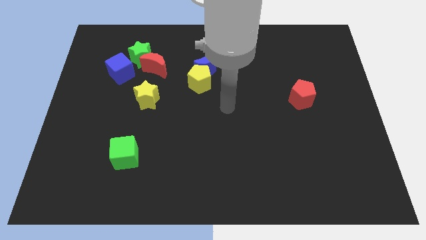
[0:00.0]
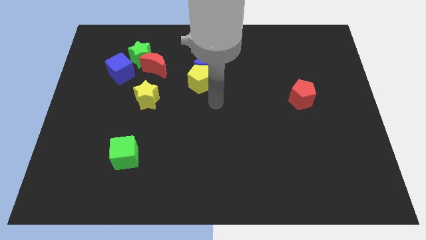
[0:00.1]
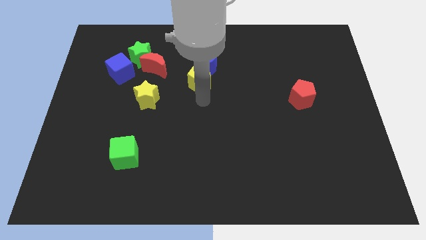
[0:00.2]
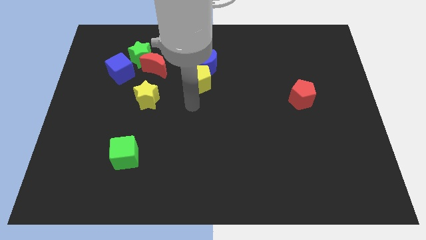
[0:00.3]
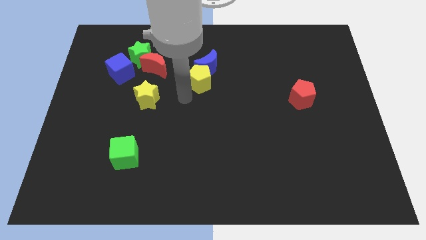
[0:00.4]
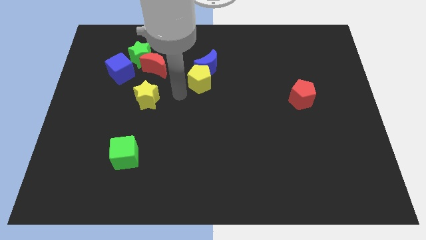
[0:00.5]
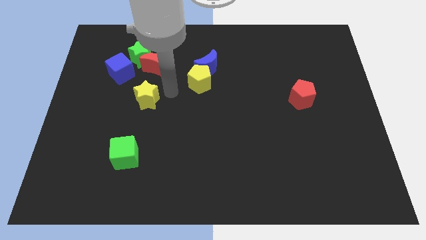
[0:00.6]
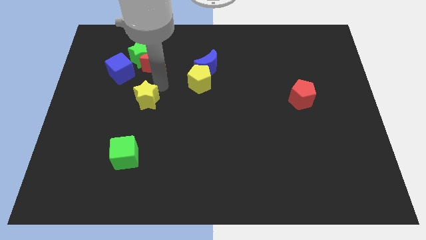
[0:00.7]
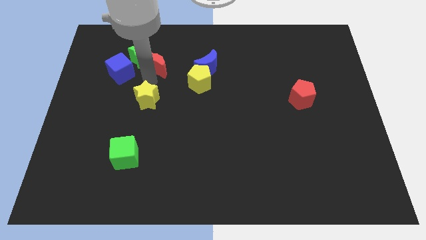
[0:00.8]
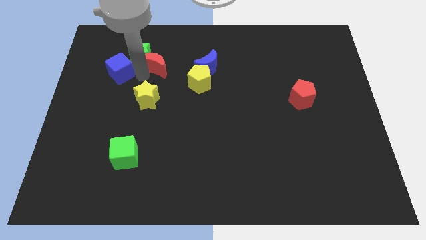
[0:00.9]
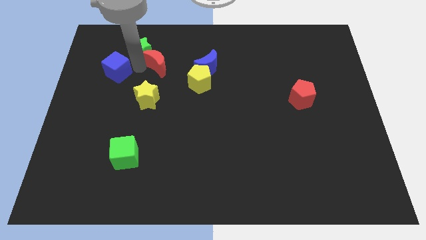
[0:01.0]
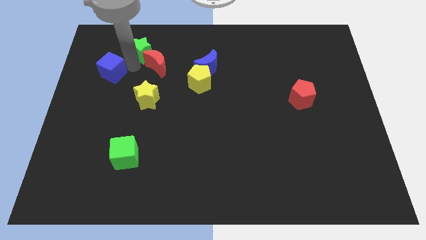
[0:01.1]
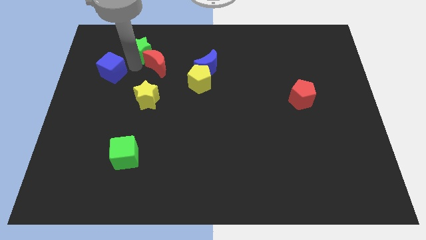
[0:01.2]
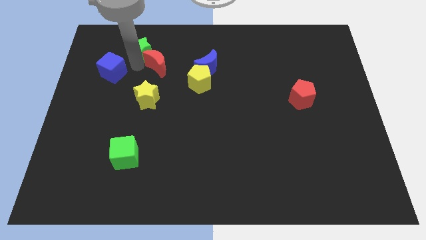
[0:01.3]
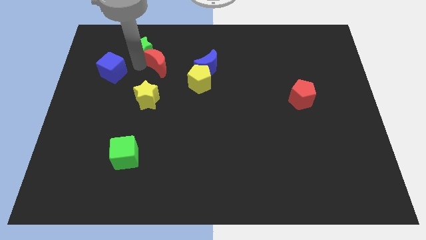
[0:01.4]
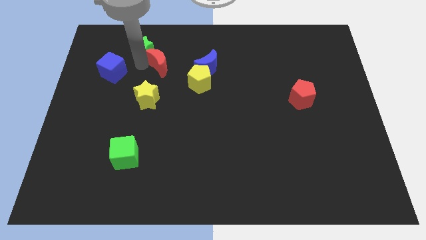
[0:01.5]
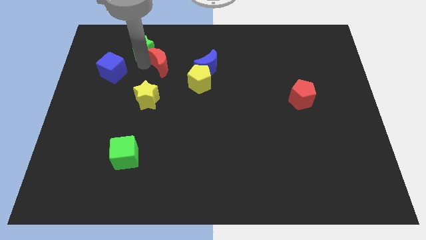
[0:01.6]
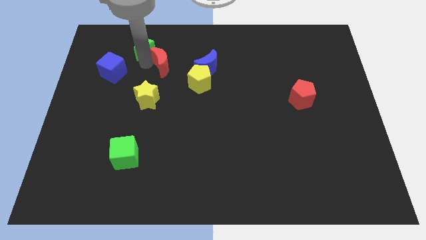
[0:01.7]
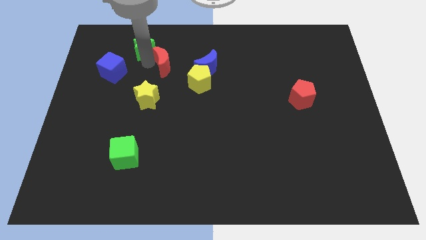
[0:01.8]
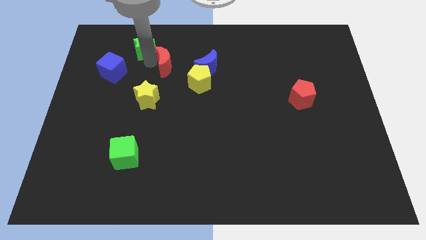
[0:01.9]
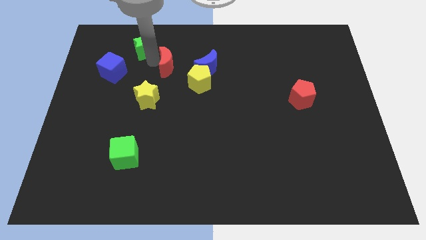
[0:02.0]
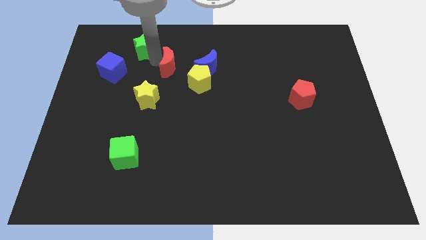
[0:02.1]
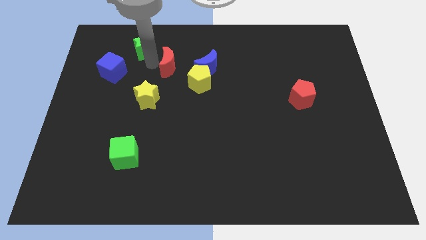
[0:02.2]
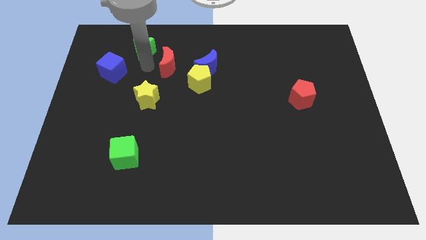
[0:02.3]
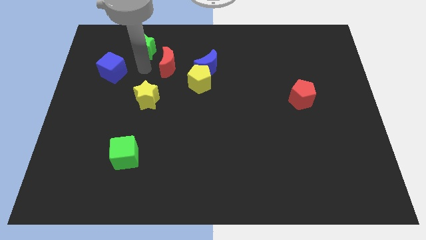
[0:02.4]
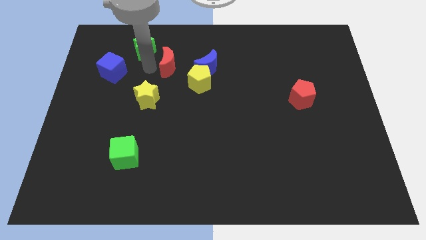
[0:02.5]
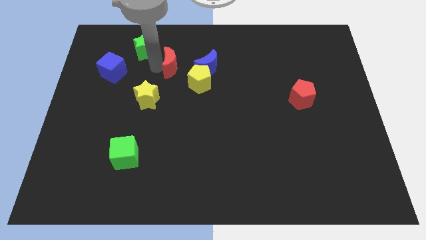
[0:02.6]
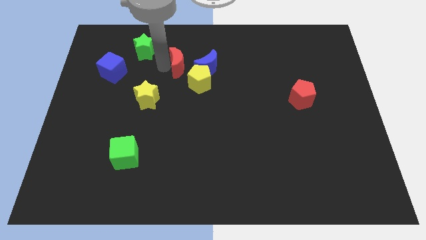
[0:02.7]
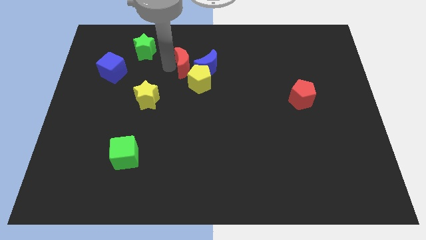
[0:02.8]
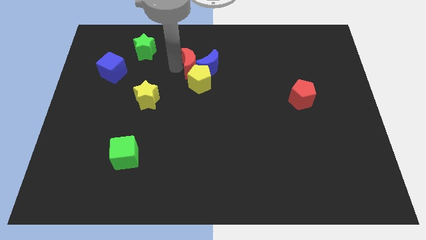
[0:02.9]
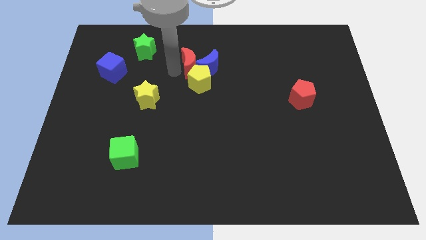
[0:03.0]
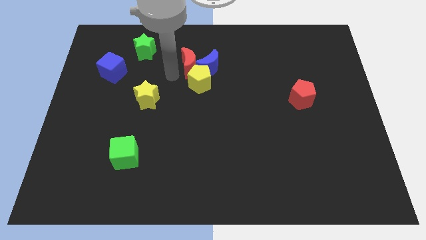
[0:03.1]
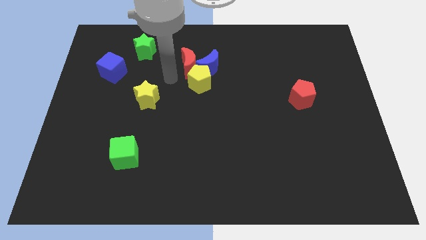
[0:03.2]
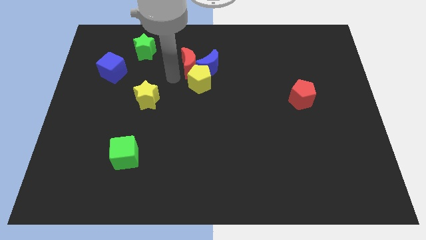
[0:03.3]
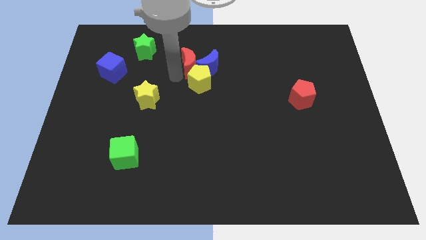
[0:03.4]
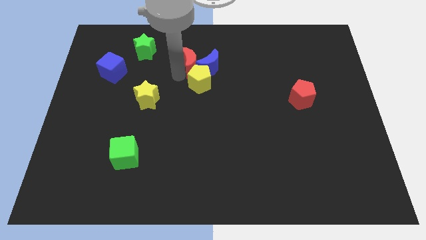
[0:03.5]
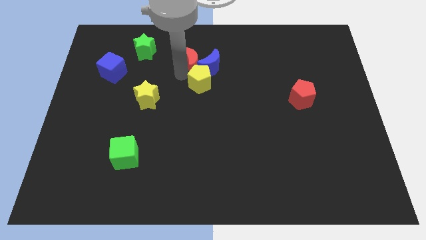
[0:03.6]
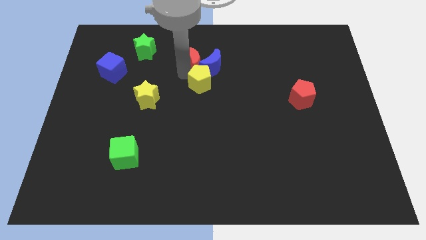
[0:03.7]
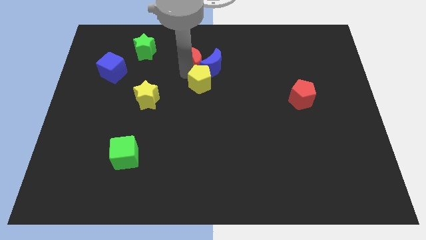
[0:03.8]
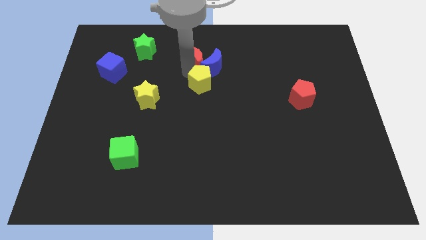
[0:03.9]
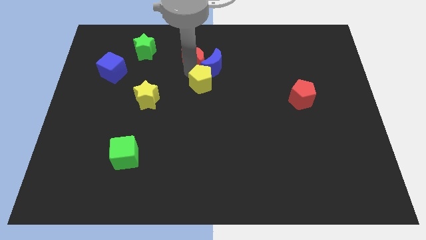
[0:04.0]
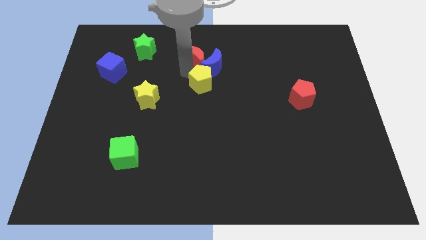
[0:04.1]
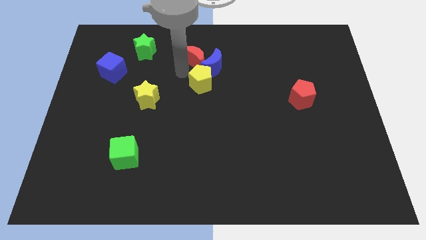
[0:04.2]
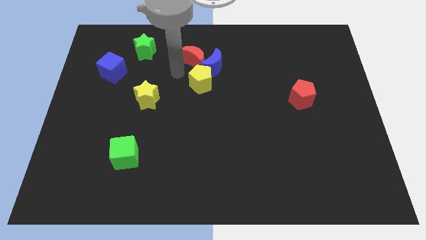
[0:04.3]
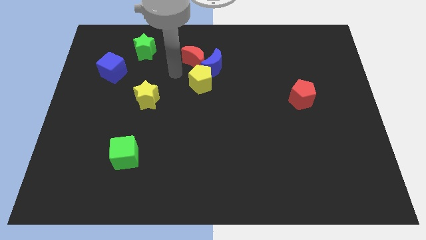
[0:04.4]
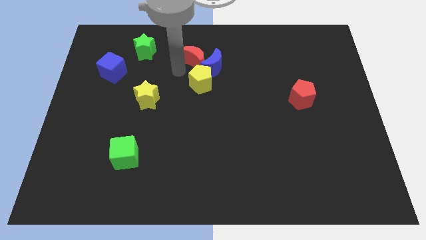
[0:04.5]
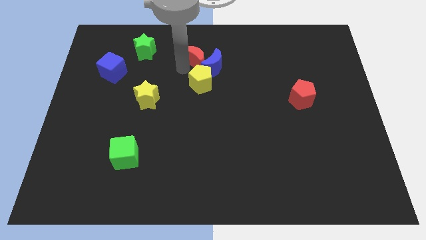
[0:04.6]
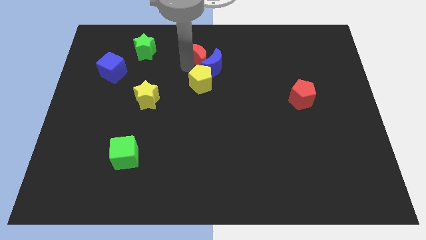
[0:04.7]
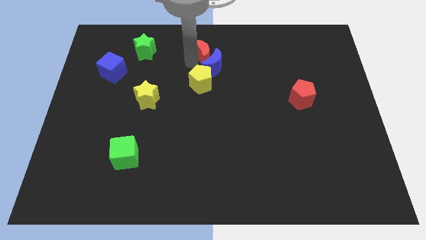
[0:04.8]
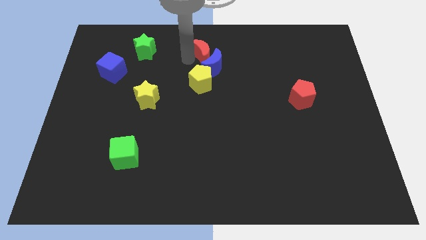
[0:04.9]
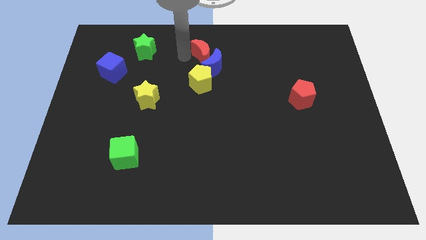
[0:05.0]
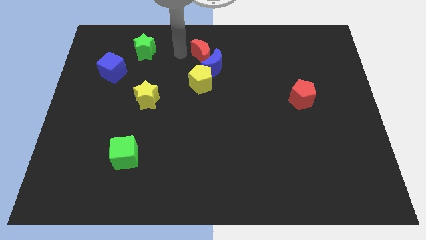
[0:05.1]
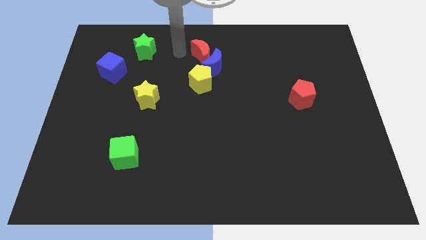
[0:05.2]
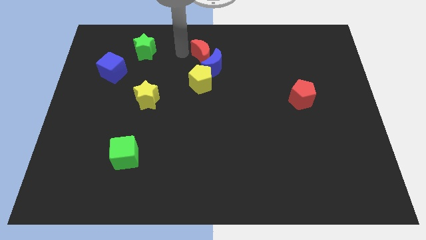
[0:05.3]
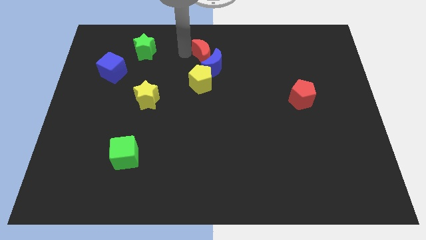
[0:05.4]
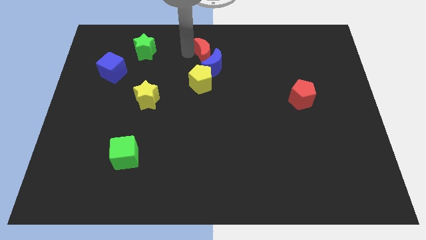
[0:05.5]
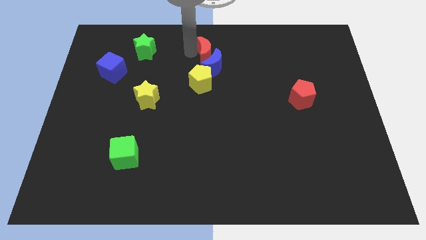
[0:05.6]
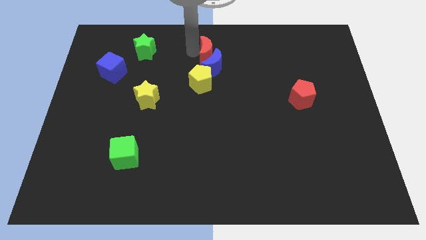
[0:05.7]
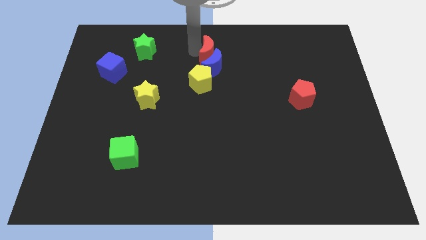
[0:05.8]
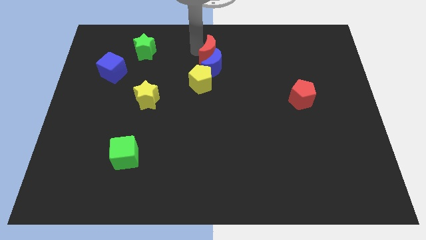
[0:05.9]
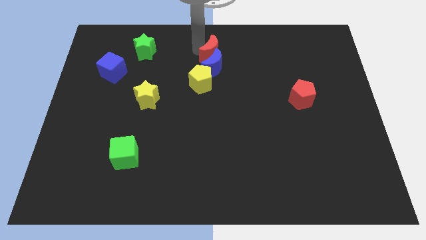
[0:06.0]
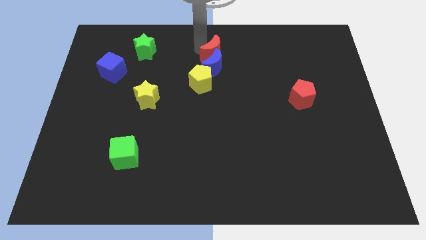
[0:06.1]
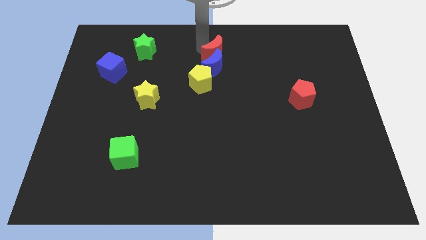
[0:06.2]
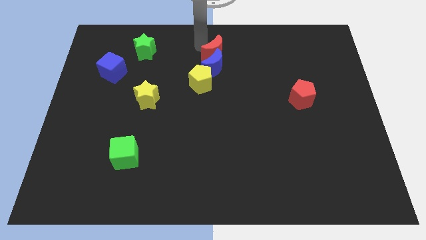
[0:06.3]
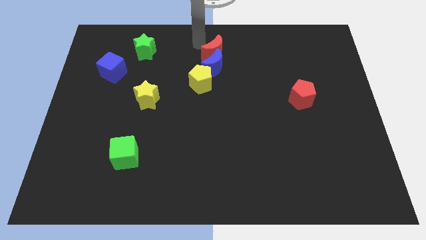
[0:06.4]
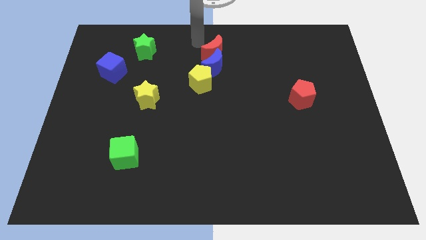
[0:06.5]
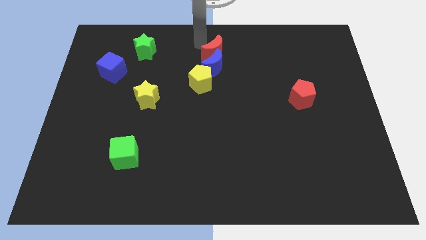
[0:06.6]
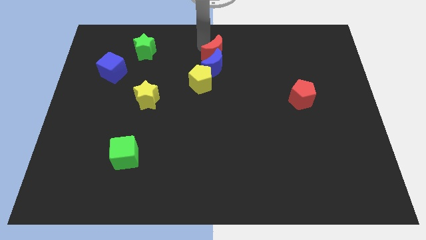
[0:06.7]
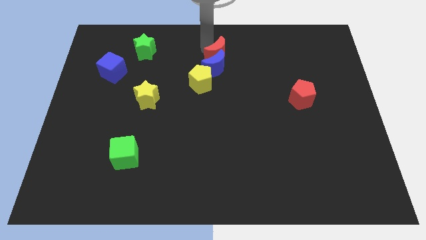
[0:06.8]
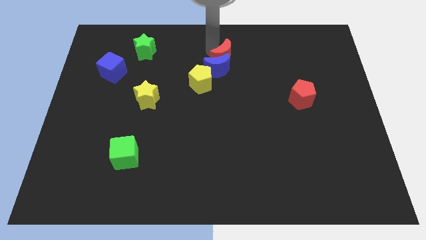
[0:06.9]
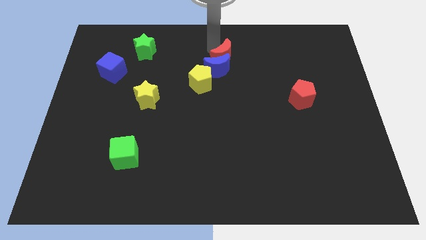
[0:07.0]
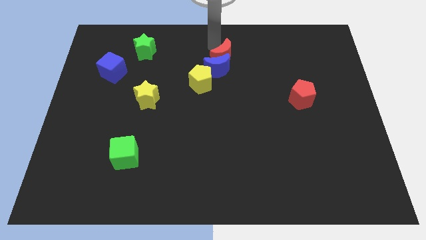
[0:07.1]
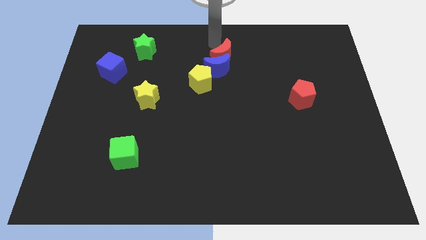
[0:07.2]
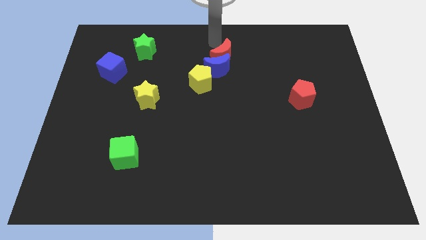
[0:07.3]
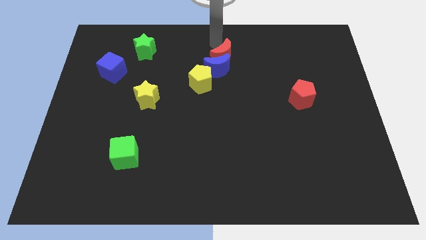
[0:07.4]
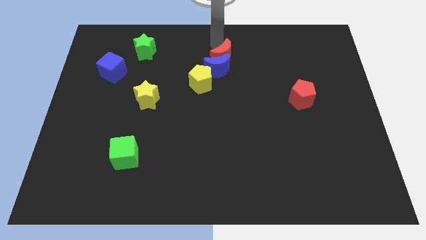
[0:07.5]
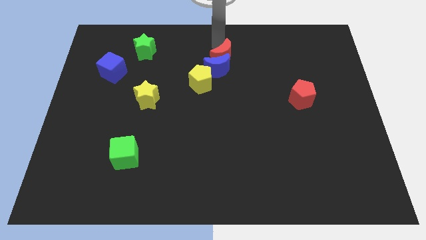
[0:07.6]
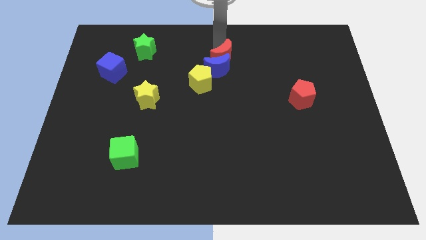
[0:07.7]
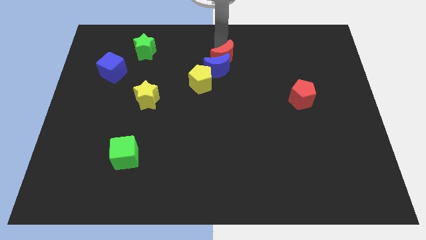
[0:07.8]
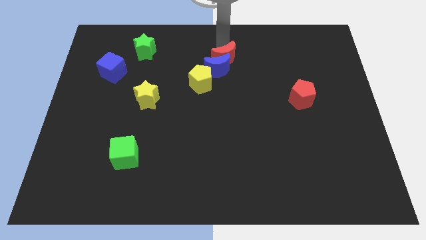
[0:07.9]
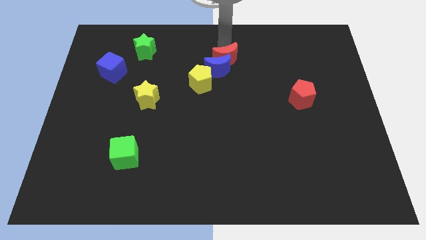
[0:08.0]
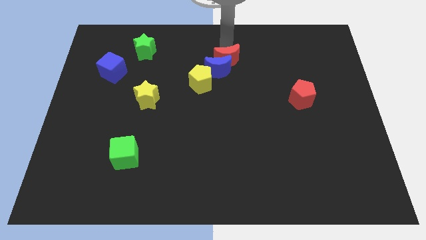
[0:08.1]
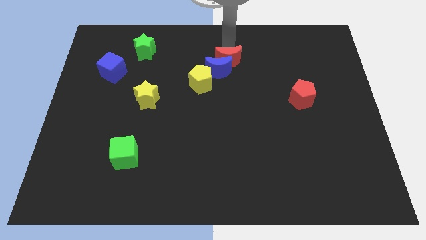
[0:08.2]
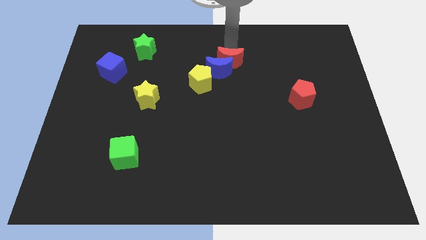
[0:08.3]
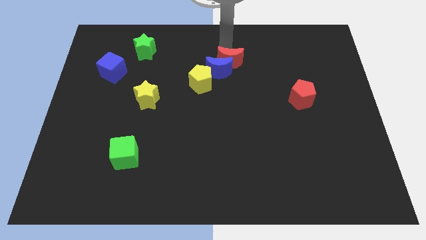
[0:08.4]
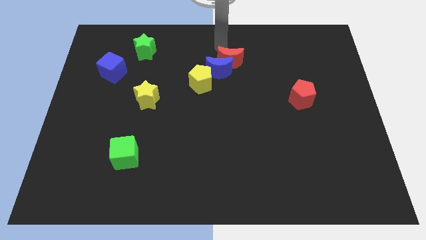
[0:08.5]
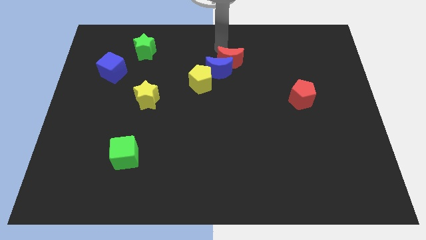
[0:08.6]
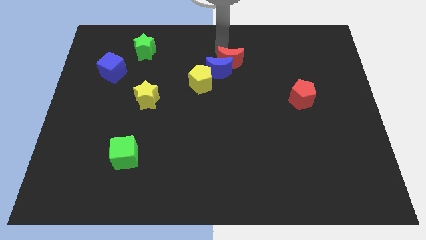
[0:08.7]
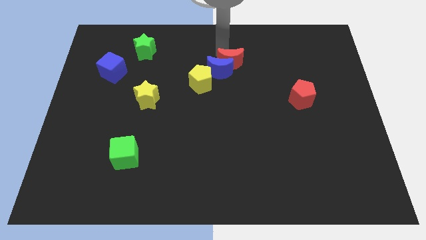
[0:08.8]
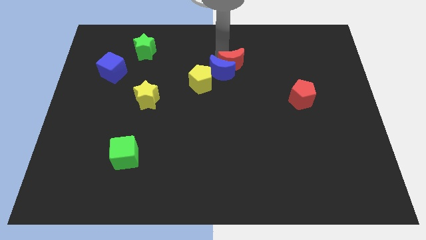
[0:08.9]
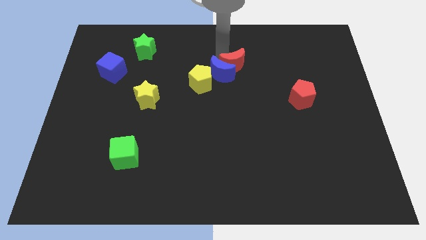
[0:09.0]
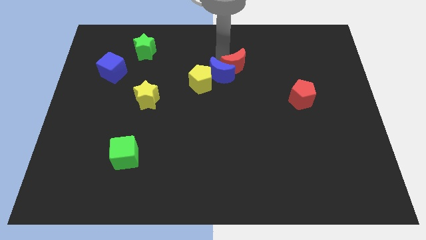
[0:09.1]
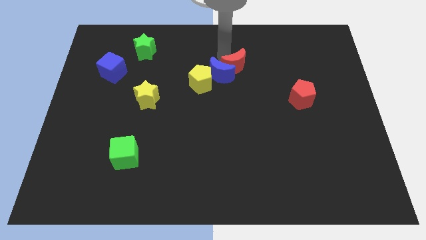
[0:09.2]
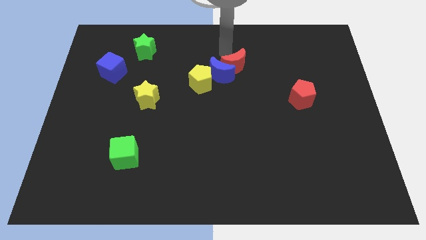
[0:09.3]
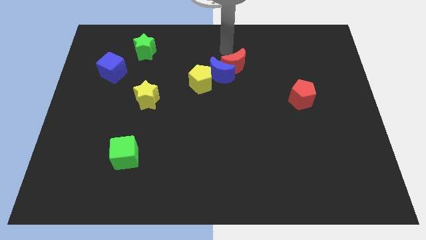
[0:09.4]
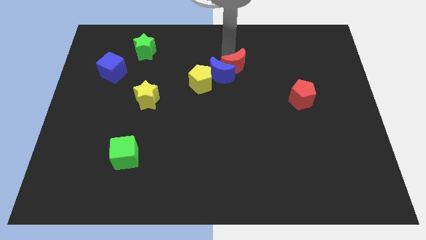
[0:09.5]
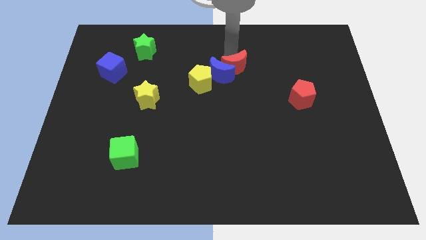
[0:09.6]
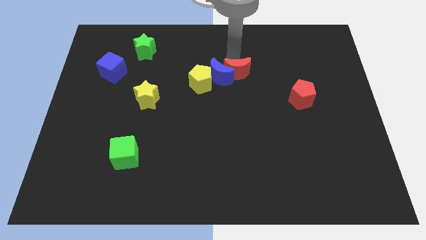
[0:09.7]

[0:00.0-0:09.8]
put the red moon just right of the yellow pentagon
